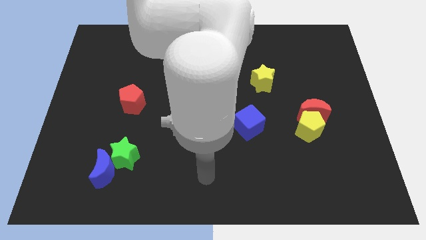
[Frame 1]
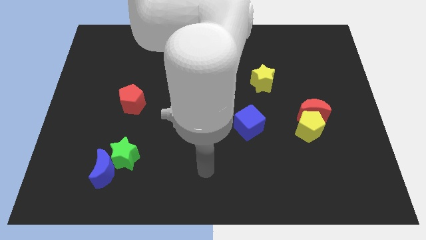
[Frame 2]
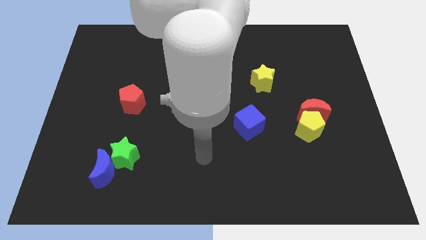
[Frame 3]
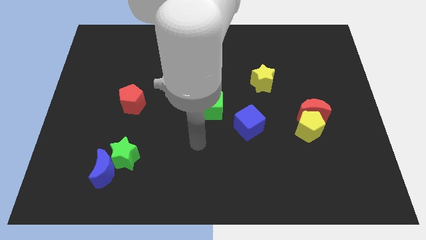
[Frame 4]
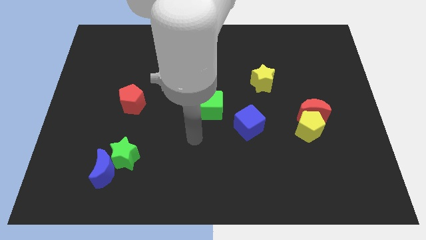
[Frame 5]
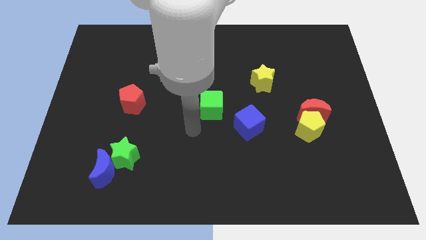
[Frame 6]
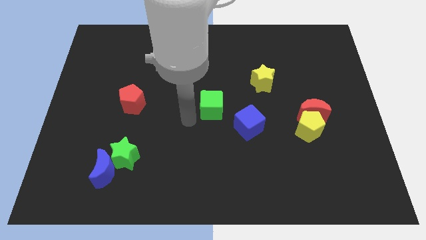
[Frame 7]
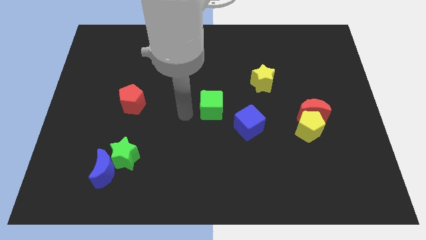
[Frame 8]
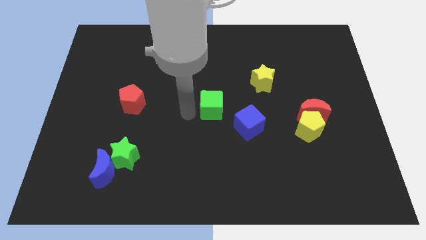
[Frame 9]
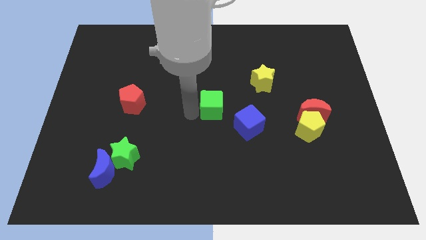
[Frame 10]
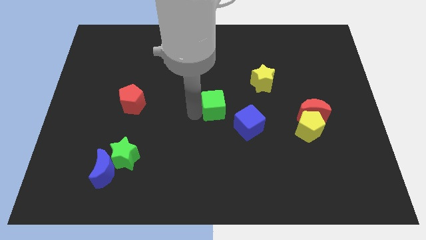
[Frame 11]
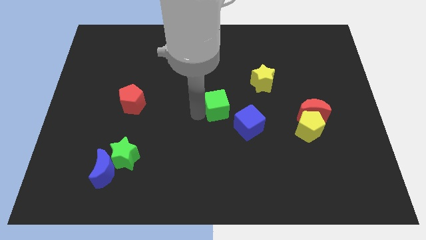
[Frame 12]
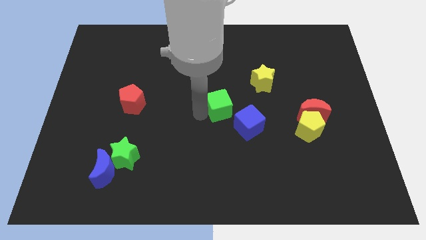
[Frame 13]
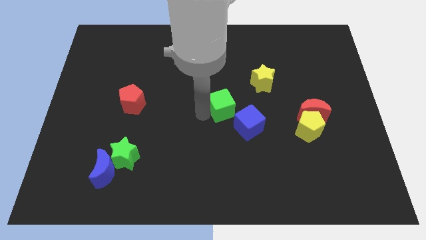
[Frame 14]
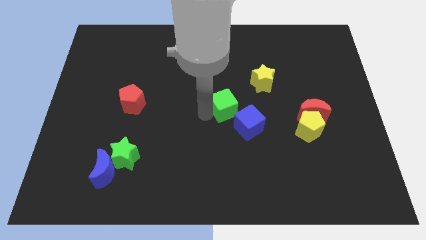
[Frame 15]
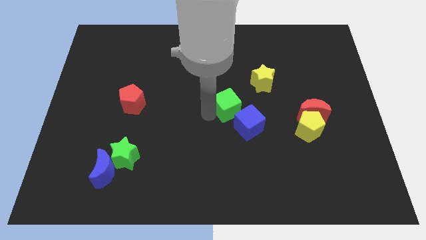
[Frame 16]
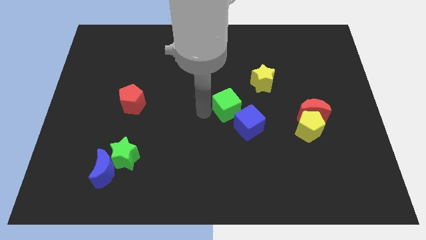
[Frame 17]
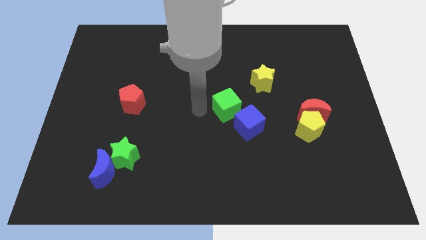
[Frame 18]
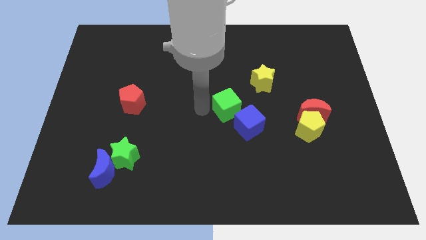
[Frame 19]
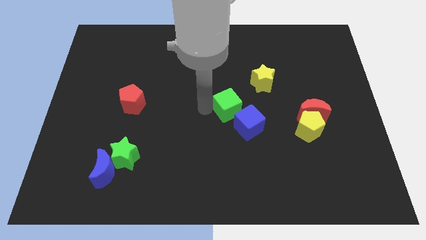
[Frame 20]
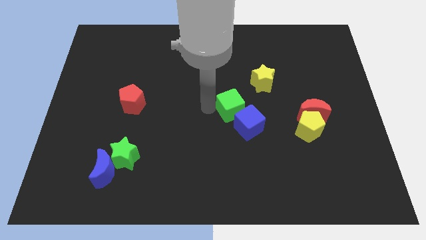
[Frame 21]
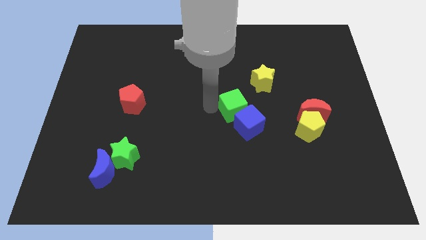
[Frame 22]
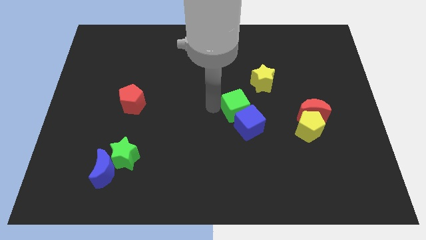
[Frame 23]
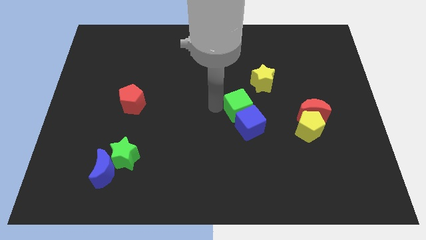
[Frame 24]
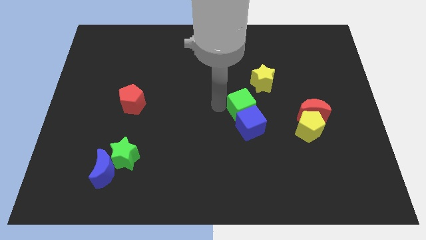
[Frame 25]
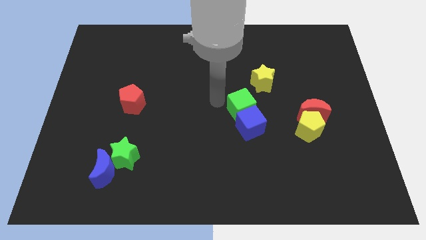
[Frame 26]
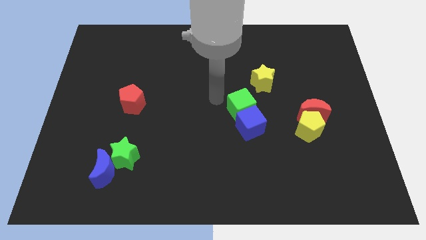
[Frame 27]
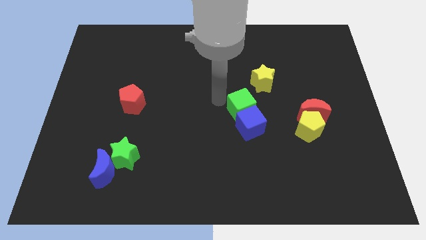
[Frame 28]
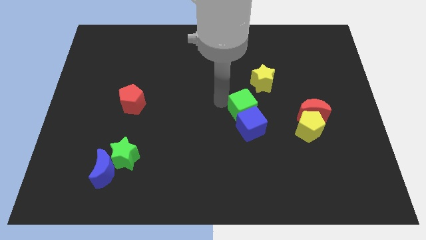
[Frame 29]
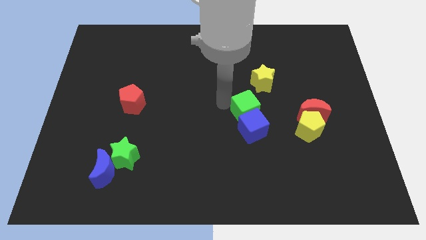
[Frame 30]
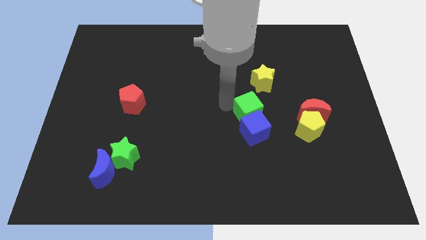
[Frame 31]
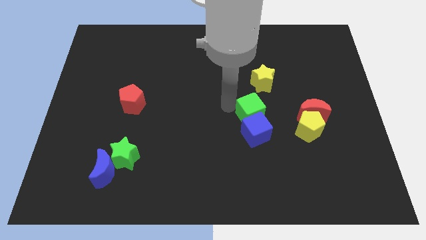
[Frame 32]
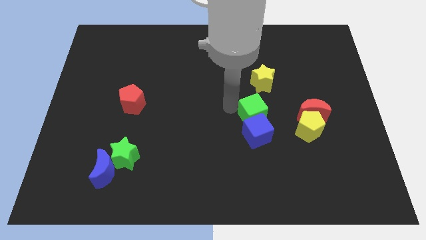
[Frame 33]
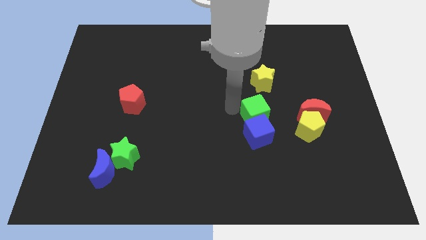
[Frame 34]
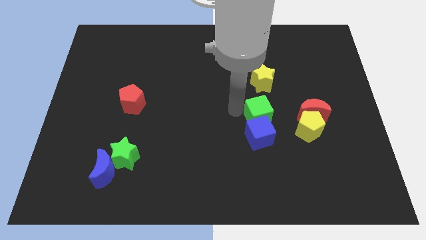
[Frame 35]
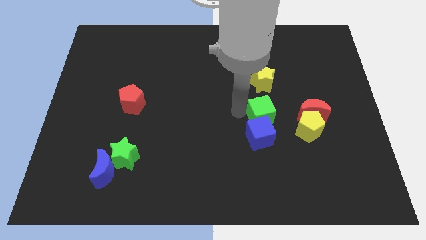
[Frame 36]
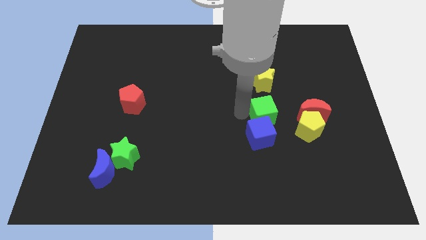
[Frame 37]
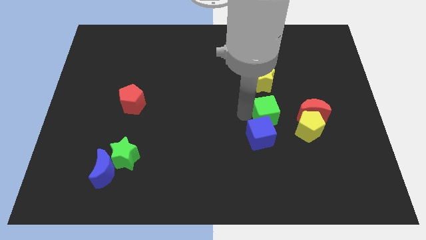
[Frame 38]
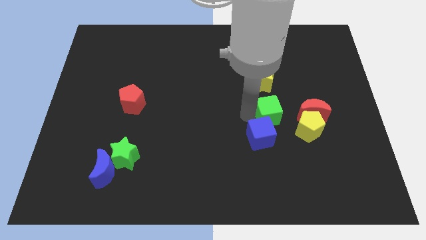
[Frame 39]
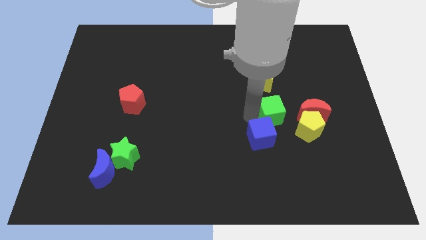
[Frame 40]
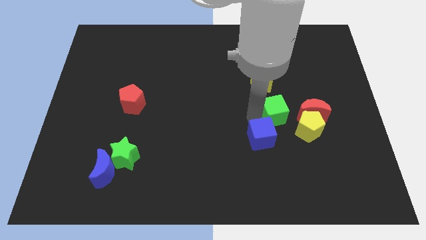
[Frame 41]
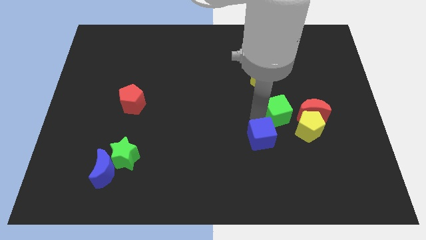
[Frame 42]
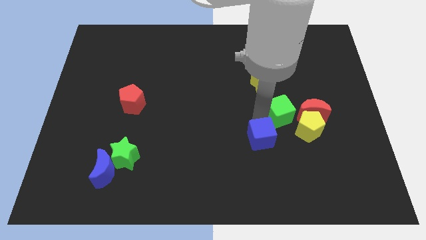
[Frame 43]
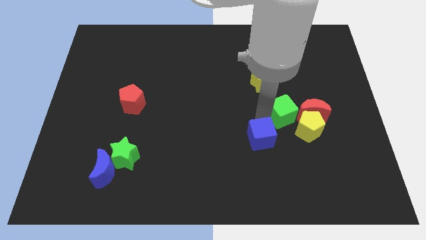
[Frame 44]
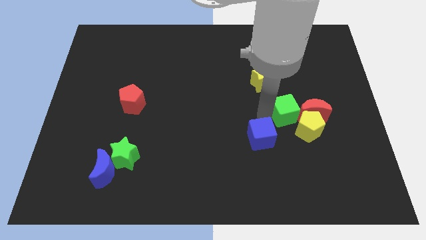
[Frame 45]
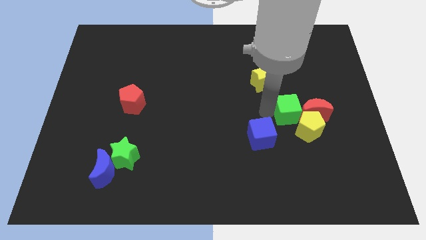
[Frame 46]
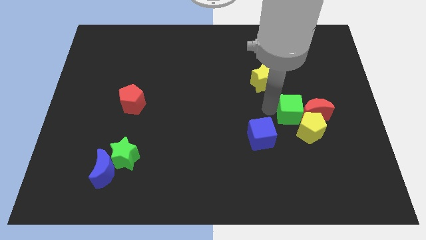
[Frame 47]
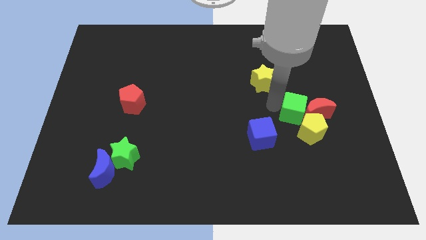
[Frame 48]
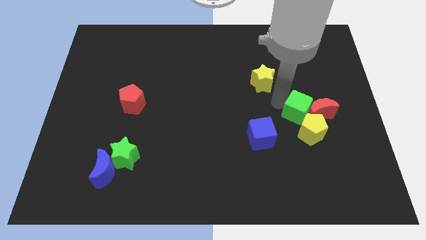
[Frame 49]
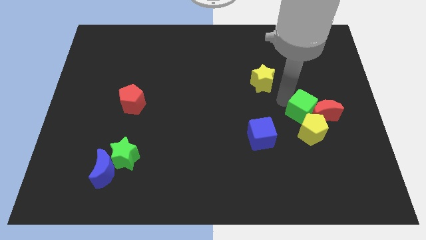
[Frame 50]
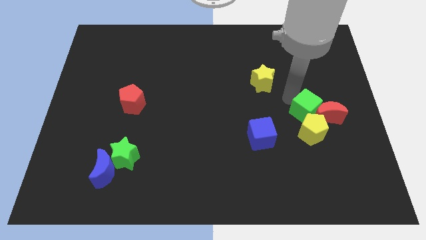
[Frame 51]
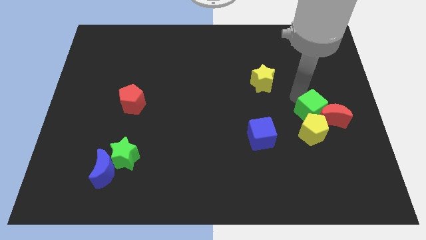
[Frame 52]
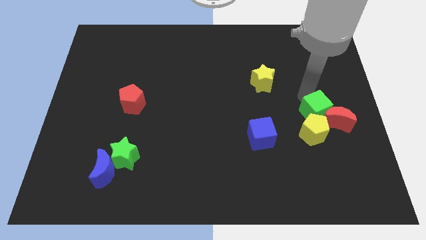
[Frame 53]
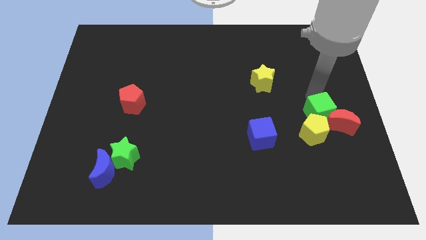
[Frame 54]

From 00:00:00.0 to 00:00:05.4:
push the green cube towards the yellow pentagon

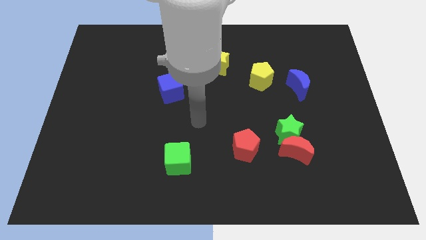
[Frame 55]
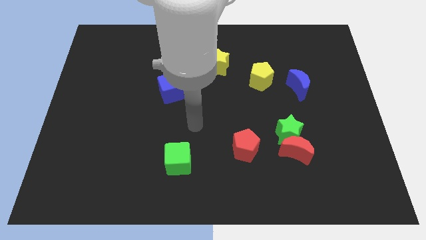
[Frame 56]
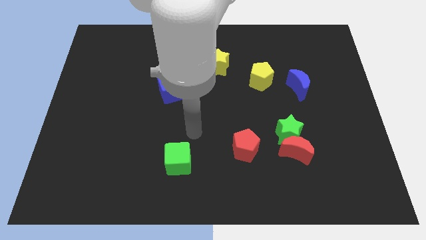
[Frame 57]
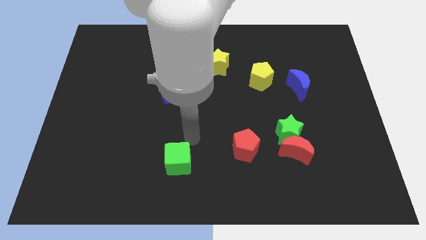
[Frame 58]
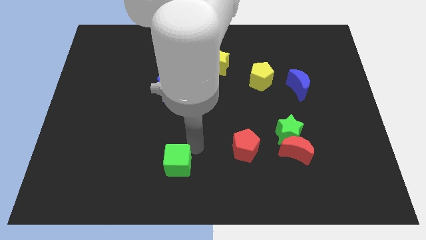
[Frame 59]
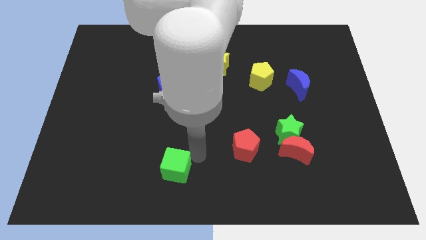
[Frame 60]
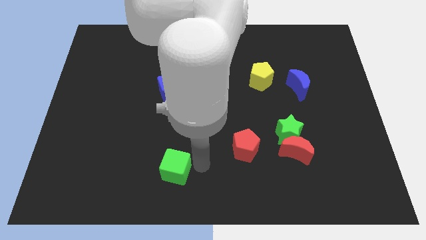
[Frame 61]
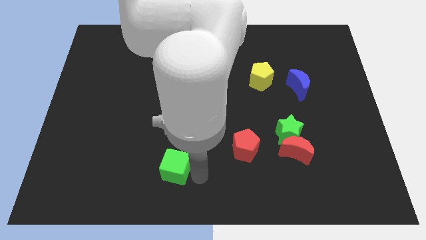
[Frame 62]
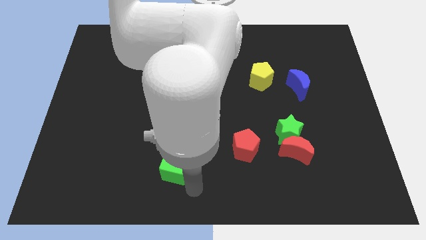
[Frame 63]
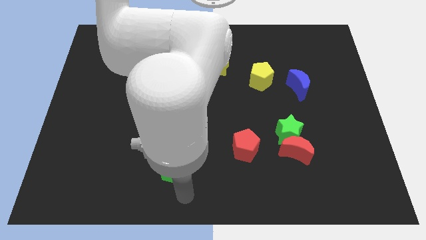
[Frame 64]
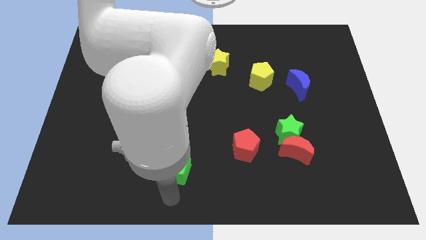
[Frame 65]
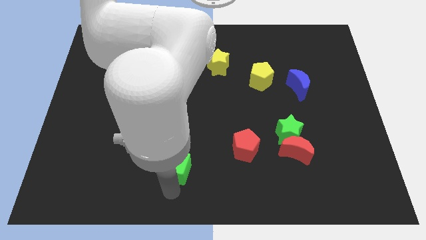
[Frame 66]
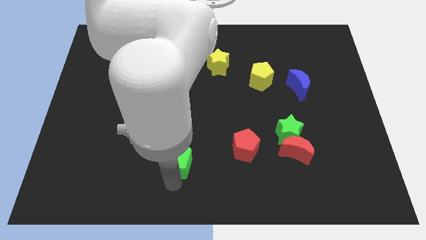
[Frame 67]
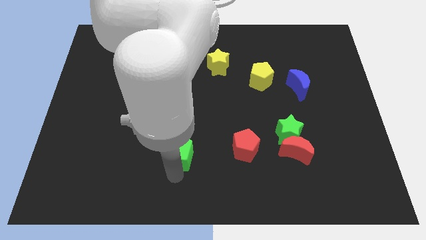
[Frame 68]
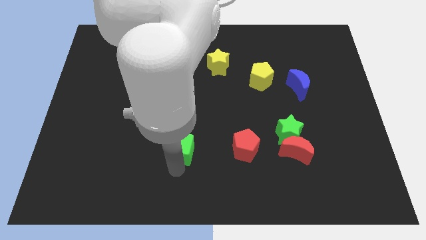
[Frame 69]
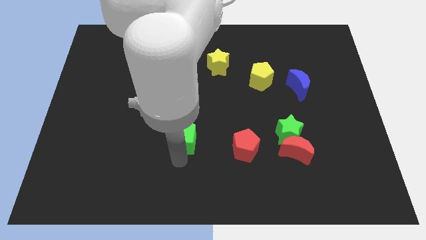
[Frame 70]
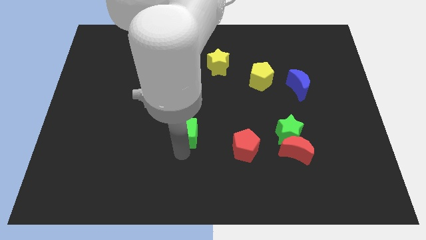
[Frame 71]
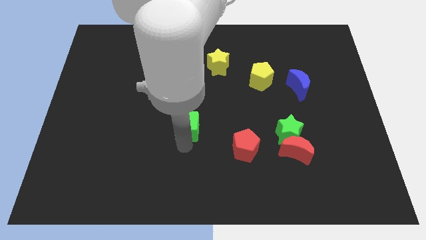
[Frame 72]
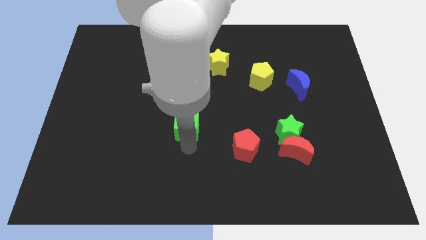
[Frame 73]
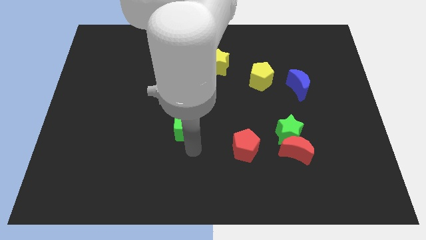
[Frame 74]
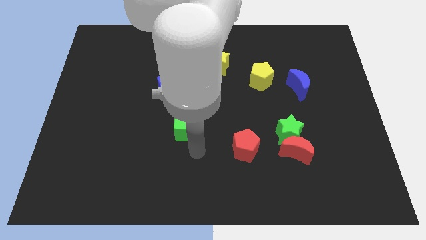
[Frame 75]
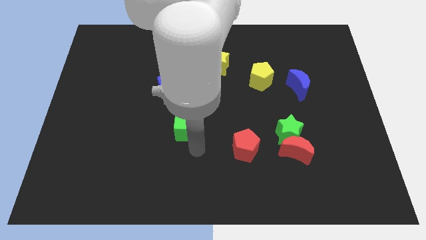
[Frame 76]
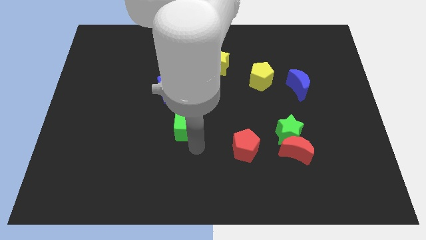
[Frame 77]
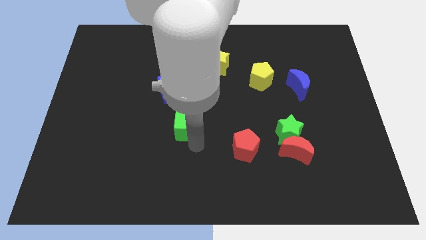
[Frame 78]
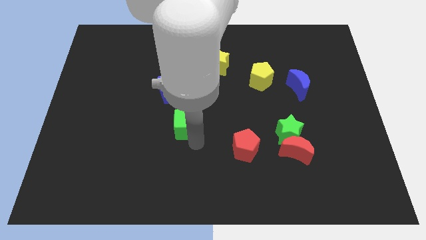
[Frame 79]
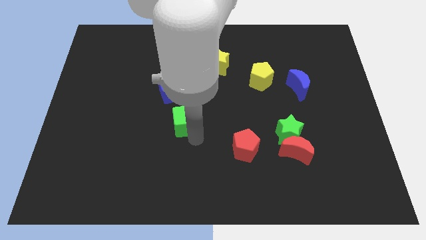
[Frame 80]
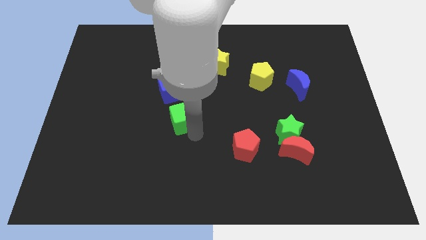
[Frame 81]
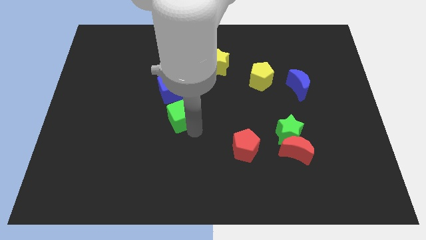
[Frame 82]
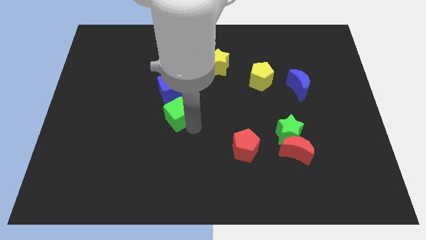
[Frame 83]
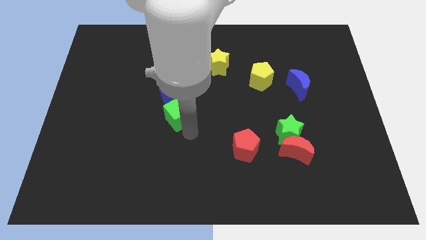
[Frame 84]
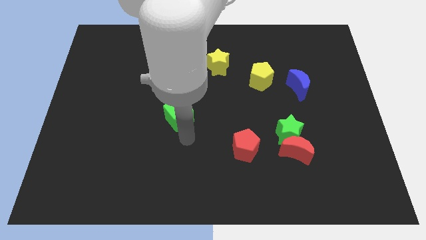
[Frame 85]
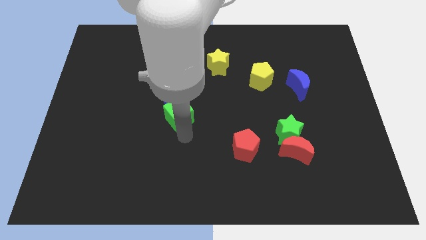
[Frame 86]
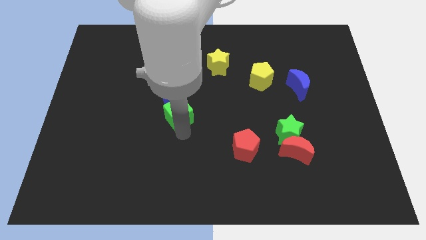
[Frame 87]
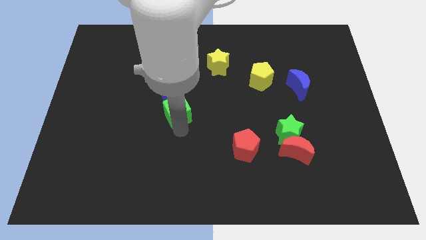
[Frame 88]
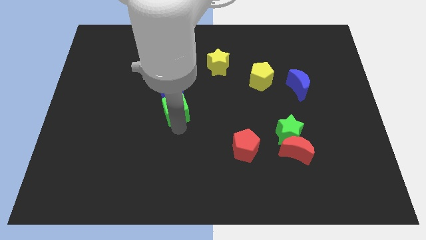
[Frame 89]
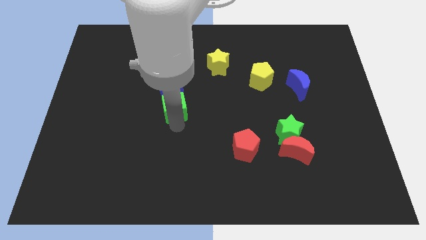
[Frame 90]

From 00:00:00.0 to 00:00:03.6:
move the green cube next to the blue cube
